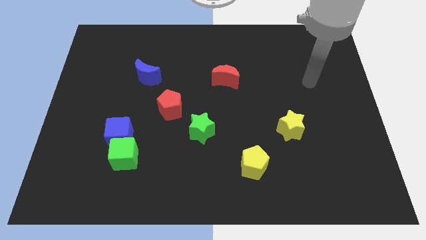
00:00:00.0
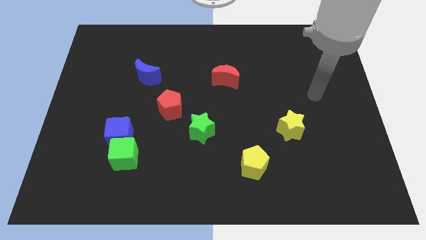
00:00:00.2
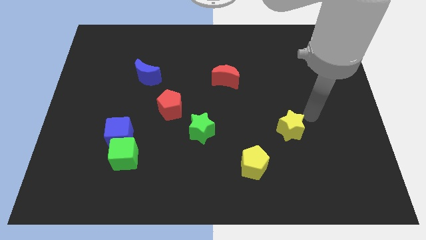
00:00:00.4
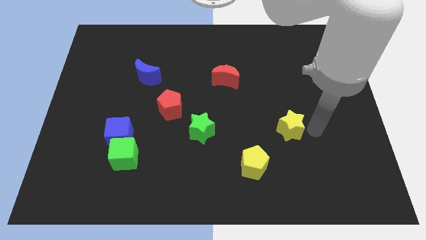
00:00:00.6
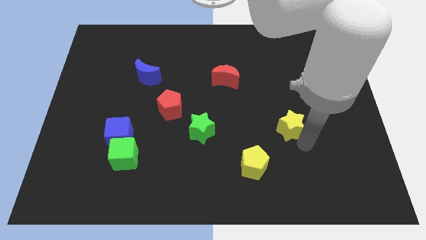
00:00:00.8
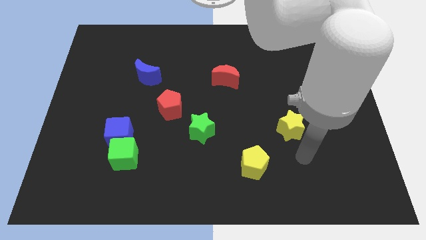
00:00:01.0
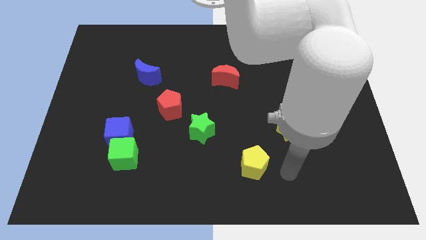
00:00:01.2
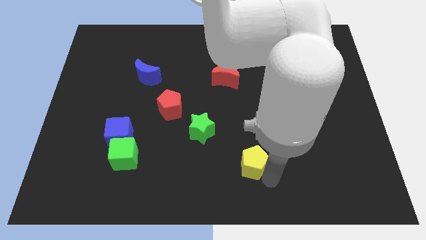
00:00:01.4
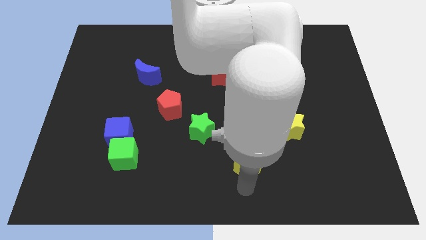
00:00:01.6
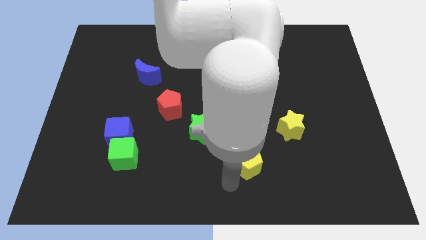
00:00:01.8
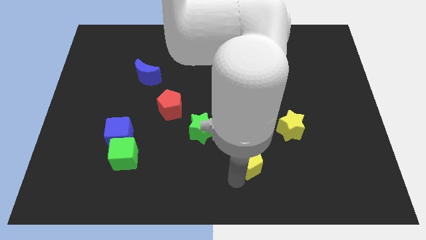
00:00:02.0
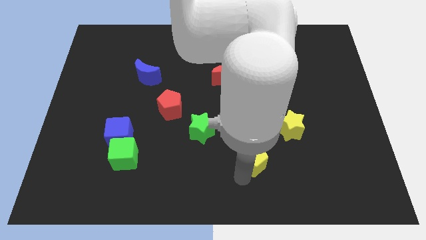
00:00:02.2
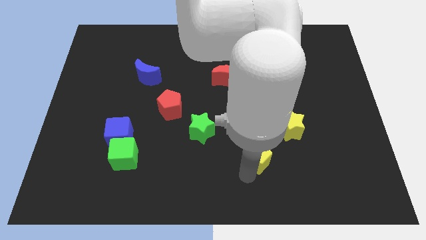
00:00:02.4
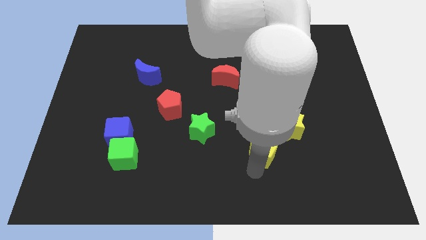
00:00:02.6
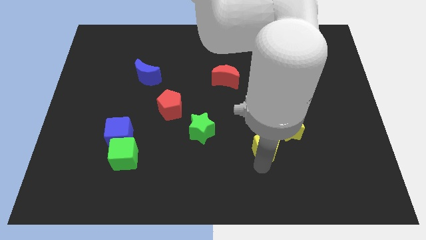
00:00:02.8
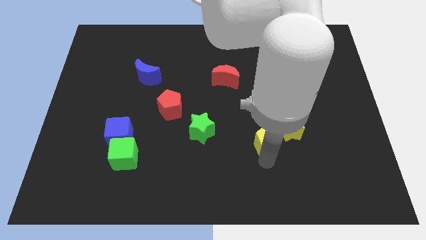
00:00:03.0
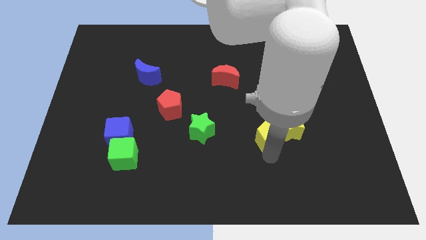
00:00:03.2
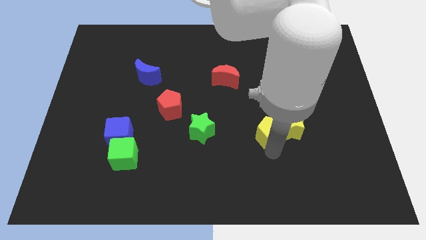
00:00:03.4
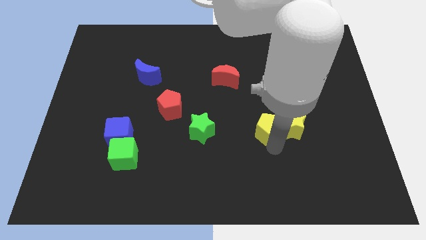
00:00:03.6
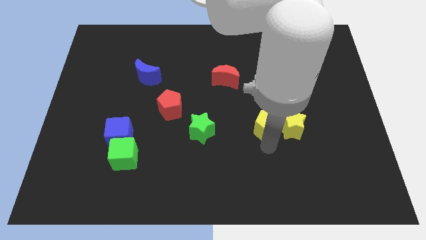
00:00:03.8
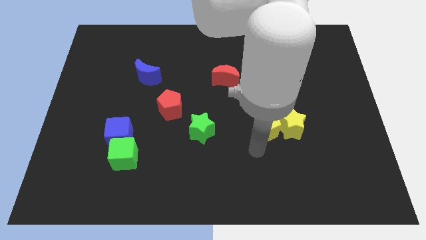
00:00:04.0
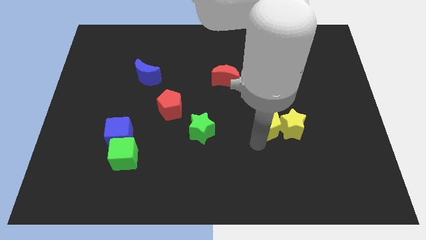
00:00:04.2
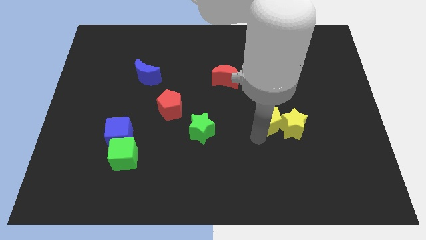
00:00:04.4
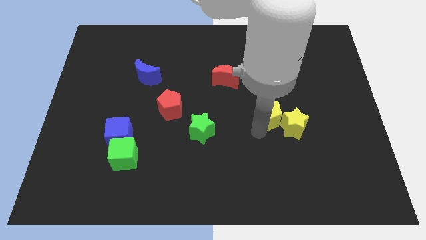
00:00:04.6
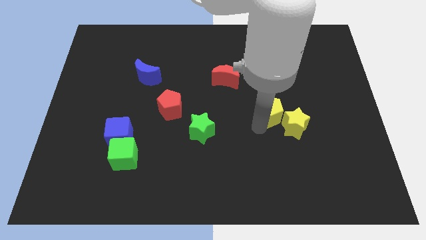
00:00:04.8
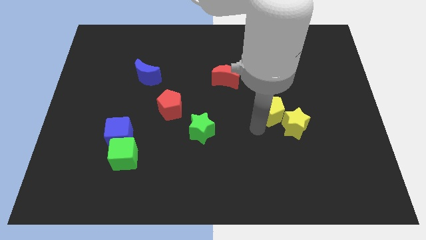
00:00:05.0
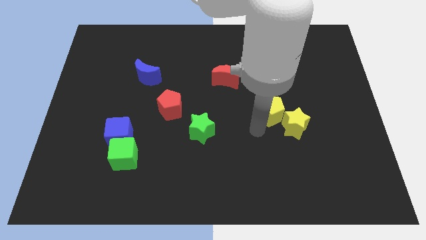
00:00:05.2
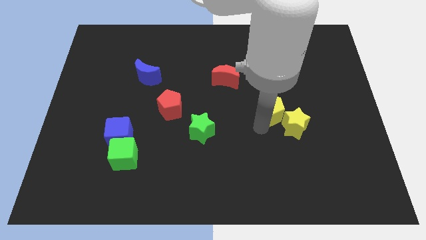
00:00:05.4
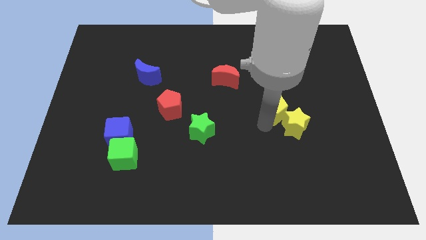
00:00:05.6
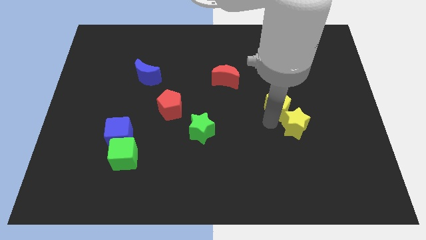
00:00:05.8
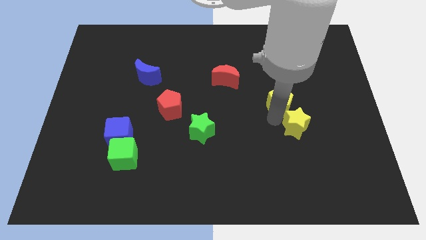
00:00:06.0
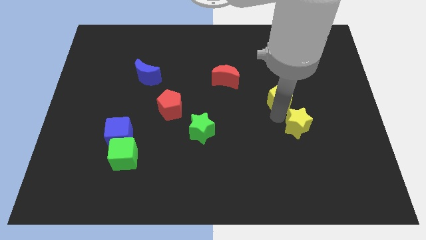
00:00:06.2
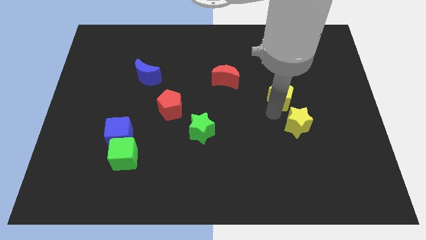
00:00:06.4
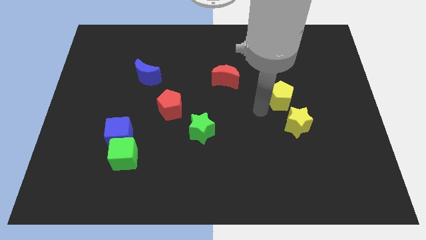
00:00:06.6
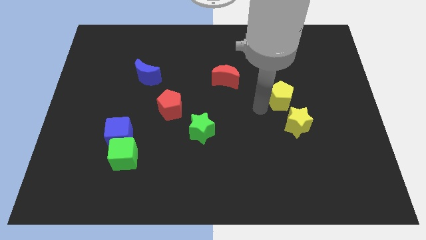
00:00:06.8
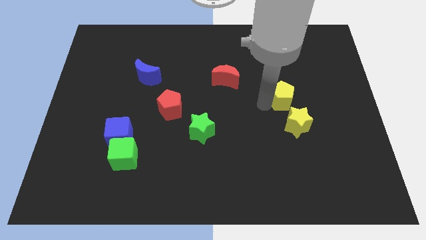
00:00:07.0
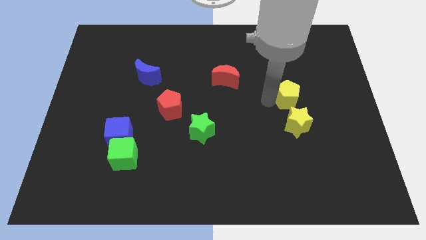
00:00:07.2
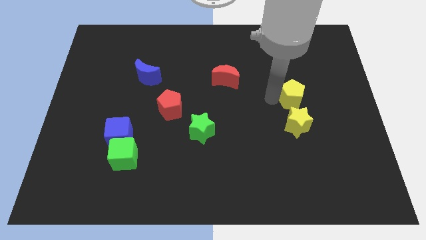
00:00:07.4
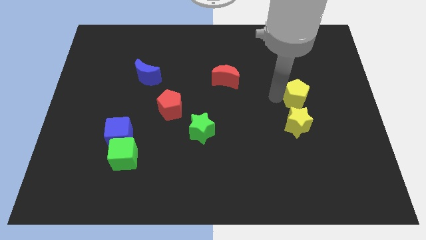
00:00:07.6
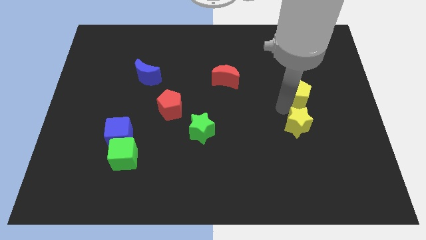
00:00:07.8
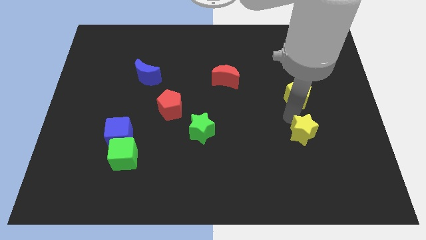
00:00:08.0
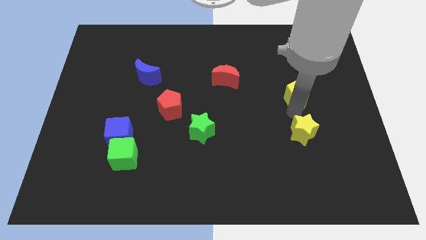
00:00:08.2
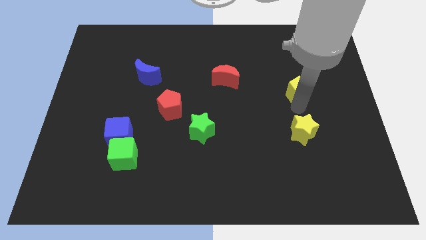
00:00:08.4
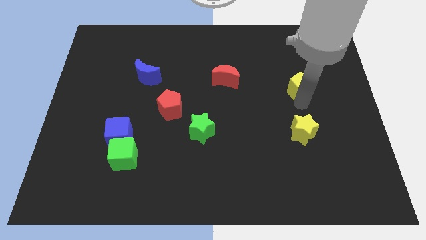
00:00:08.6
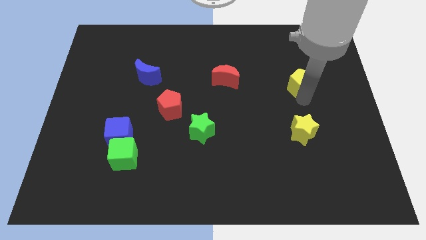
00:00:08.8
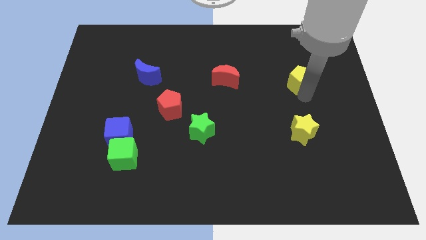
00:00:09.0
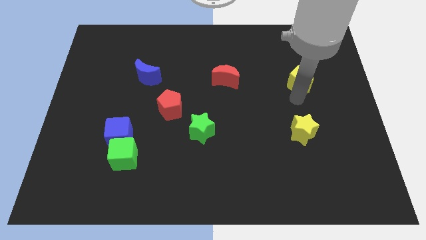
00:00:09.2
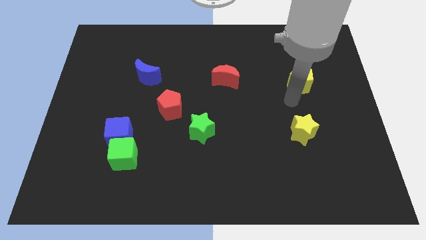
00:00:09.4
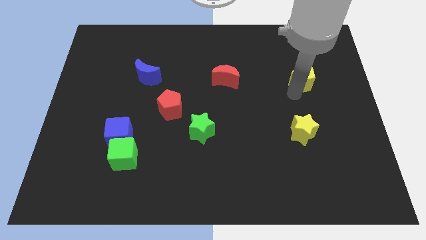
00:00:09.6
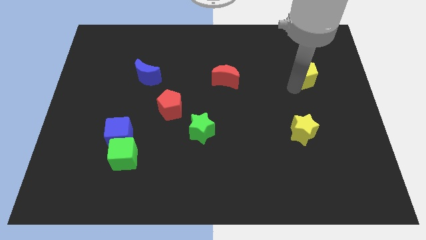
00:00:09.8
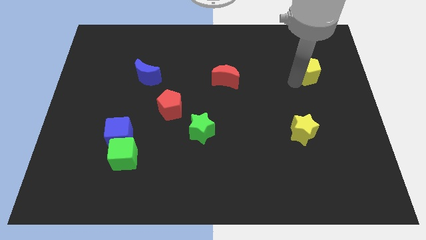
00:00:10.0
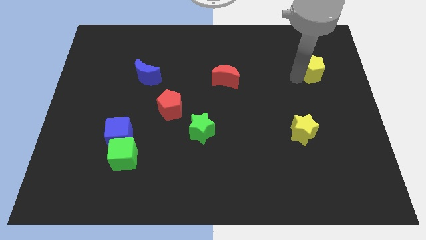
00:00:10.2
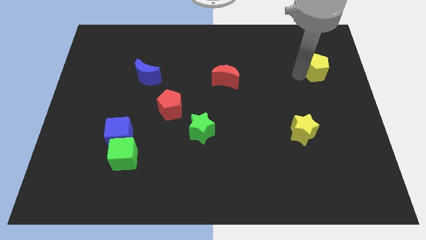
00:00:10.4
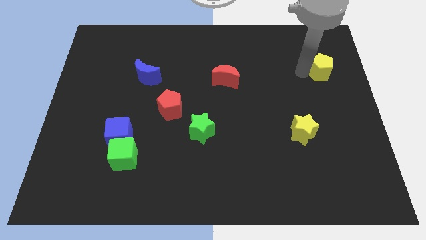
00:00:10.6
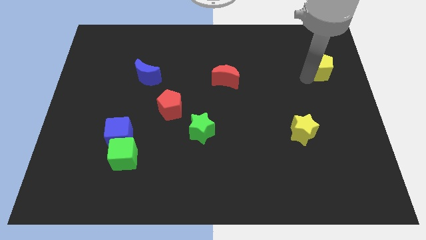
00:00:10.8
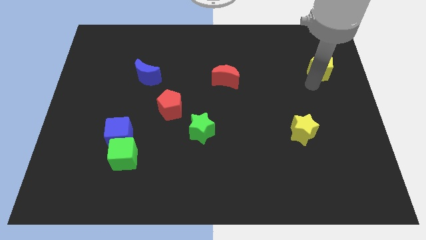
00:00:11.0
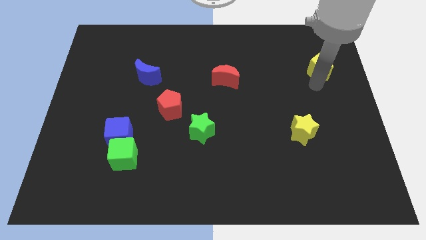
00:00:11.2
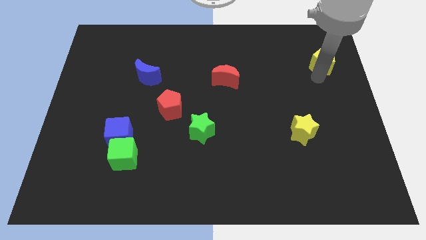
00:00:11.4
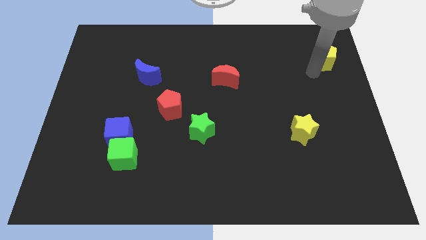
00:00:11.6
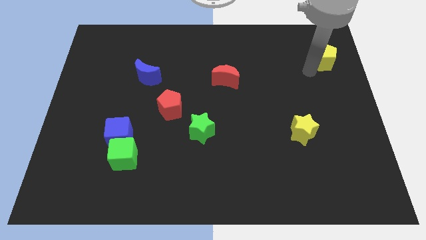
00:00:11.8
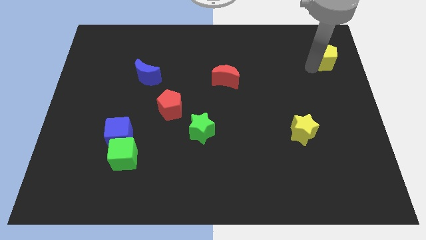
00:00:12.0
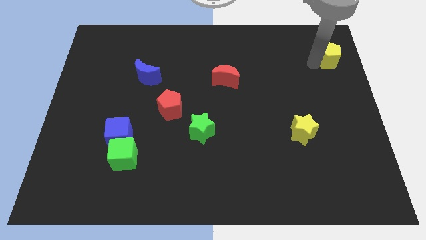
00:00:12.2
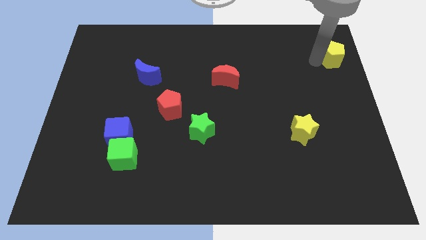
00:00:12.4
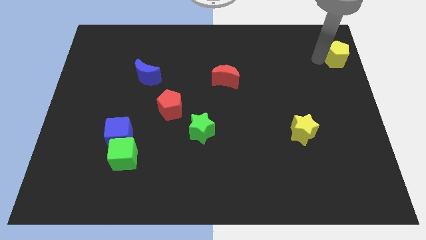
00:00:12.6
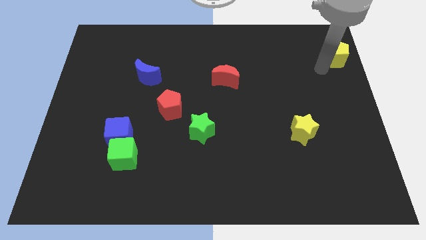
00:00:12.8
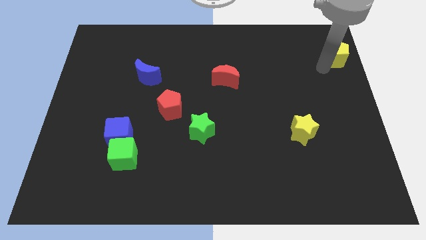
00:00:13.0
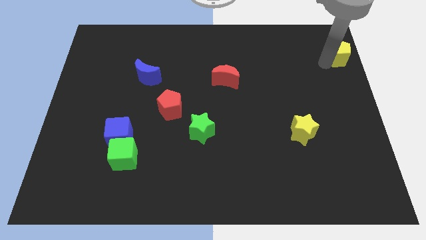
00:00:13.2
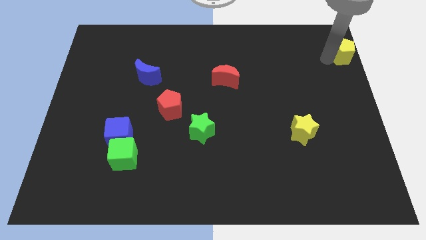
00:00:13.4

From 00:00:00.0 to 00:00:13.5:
push the yellow pentagon to the upper right corner
